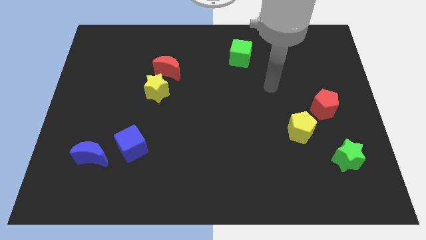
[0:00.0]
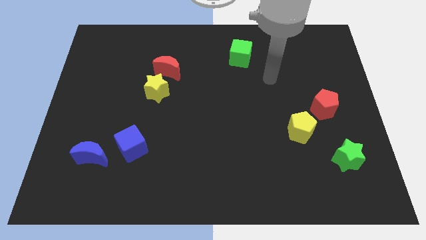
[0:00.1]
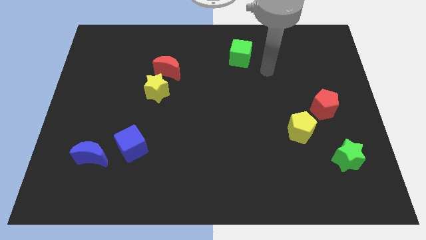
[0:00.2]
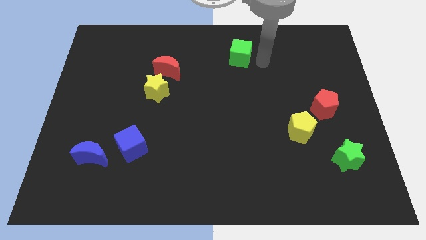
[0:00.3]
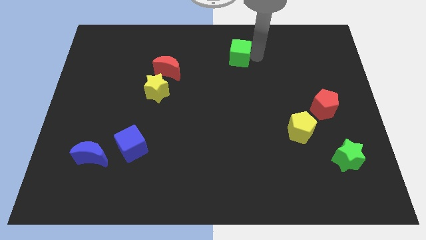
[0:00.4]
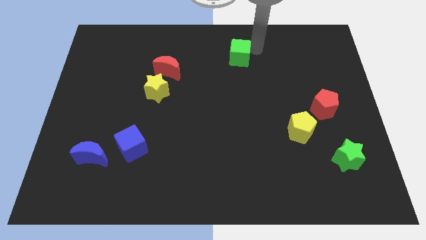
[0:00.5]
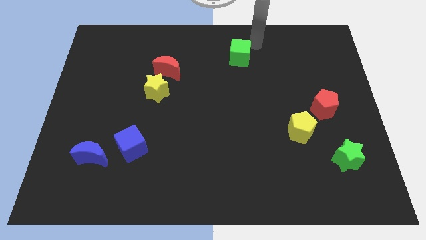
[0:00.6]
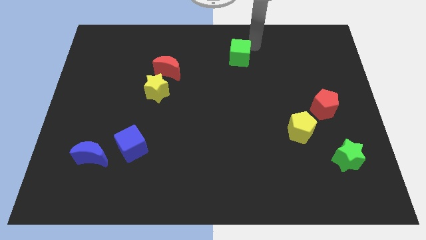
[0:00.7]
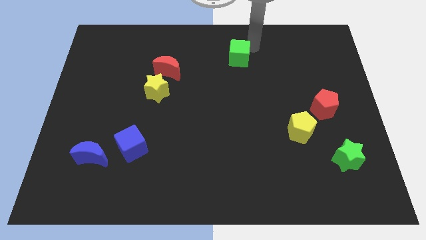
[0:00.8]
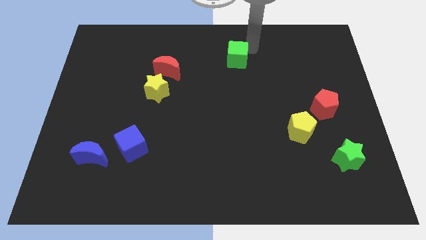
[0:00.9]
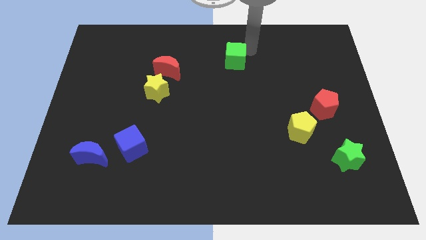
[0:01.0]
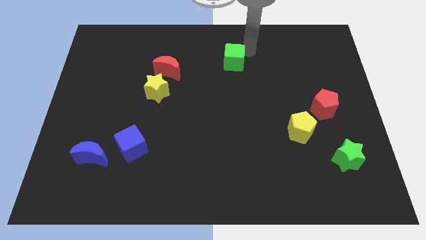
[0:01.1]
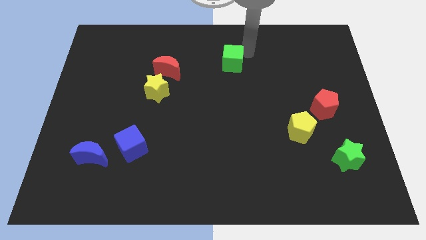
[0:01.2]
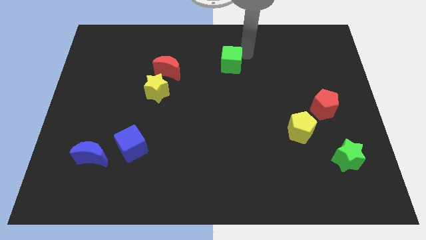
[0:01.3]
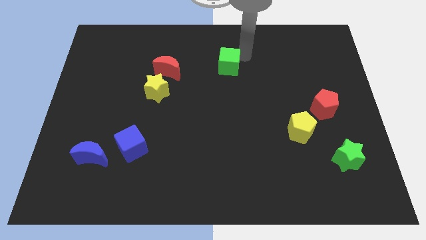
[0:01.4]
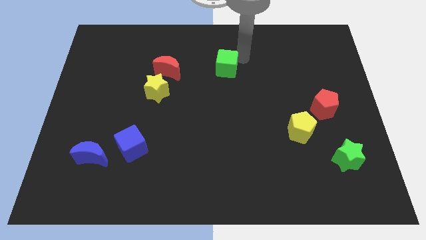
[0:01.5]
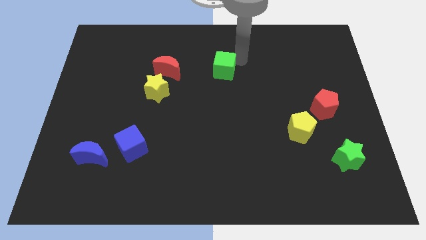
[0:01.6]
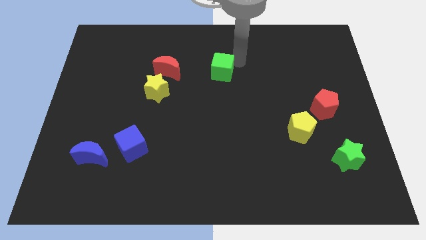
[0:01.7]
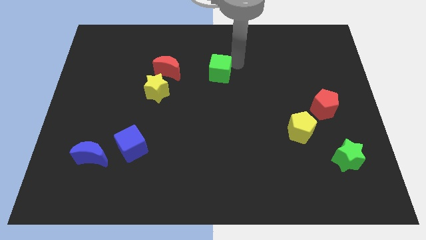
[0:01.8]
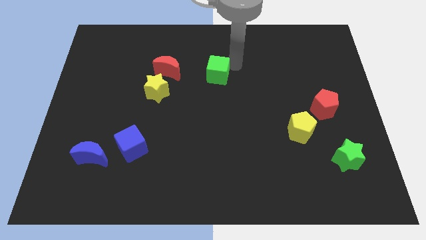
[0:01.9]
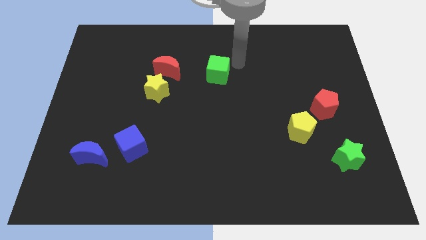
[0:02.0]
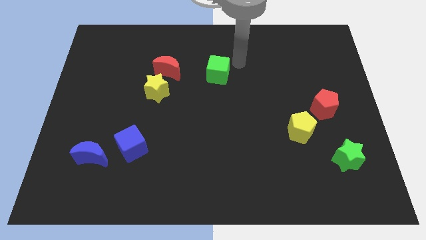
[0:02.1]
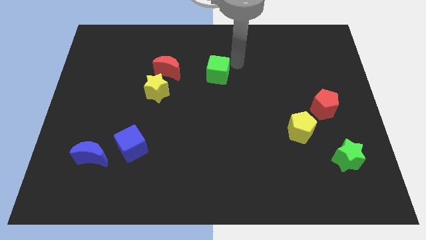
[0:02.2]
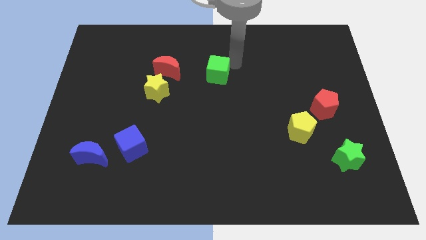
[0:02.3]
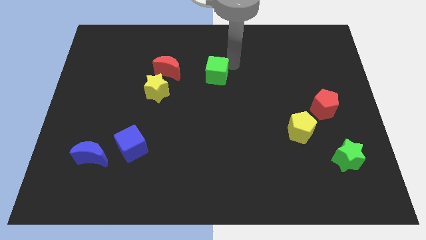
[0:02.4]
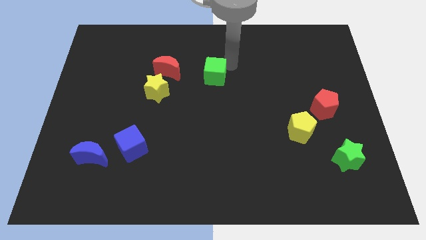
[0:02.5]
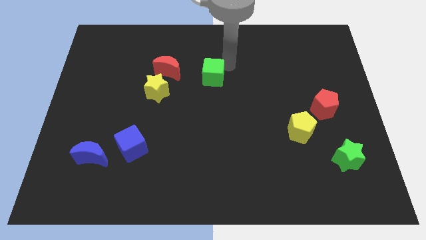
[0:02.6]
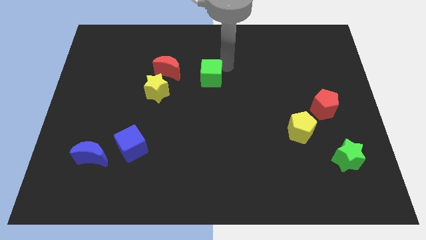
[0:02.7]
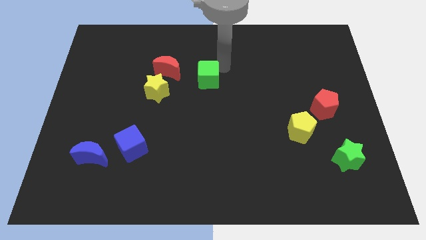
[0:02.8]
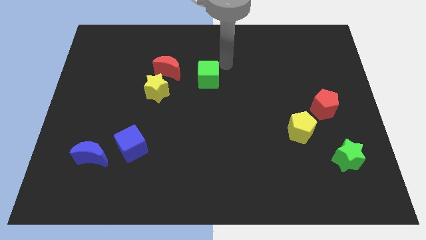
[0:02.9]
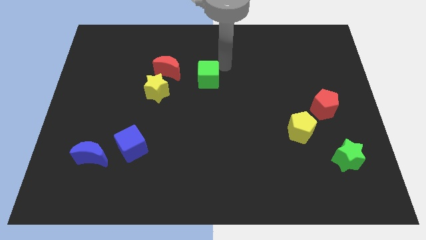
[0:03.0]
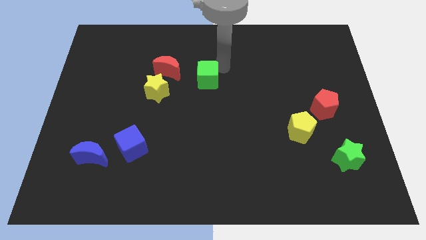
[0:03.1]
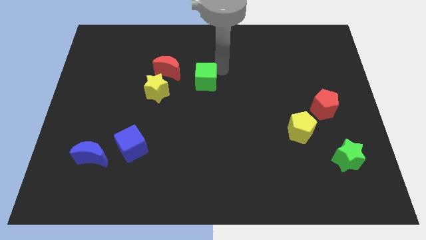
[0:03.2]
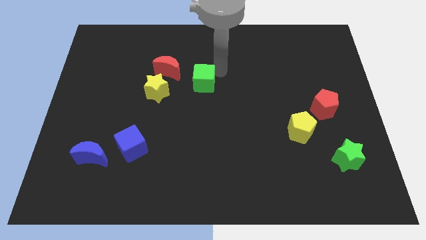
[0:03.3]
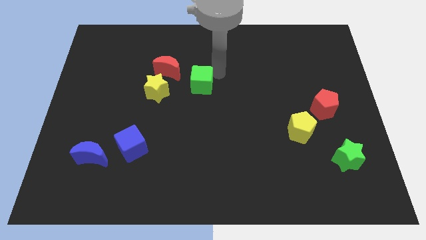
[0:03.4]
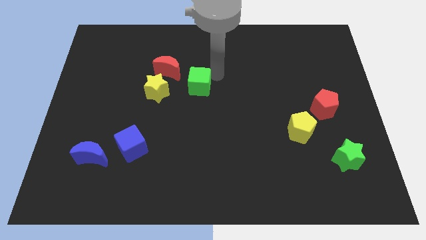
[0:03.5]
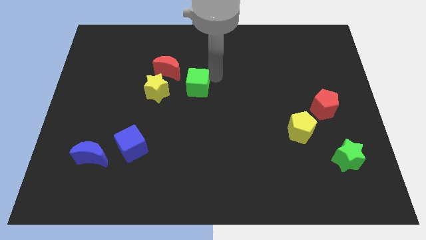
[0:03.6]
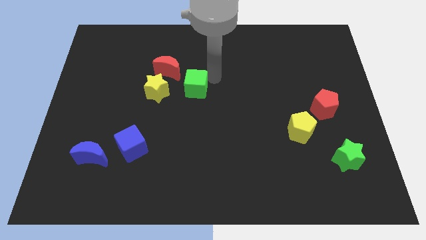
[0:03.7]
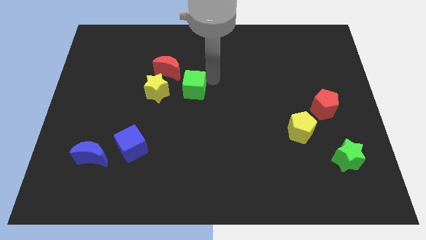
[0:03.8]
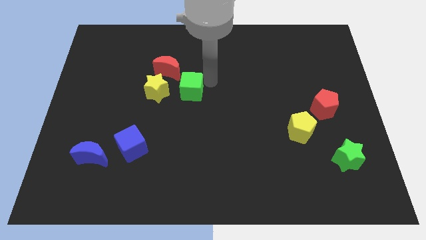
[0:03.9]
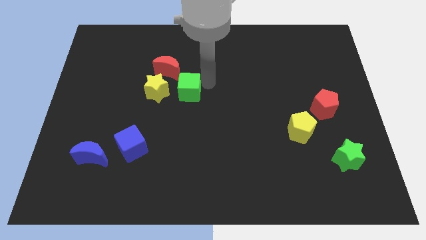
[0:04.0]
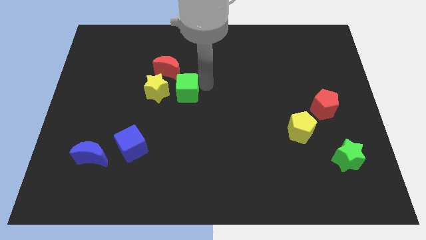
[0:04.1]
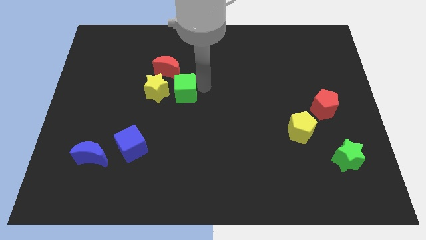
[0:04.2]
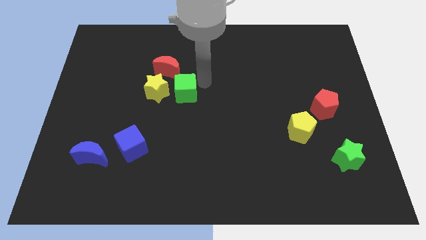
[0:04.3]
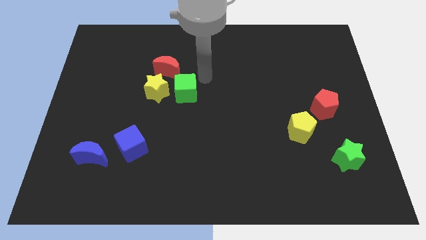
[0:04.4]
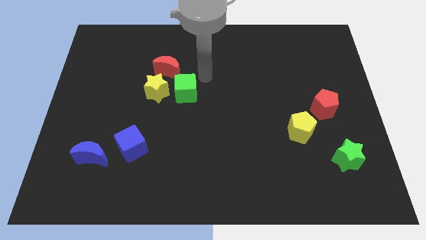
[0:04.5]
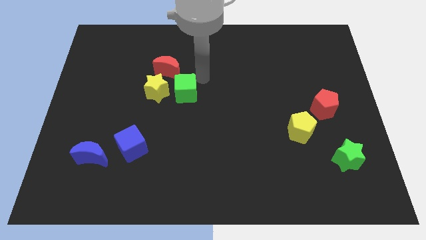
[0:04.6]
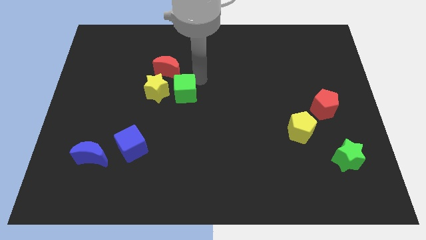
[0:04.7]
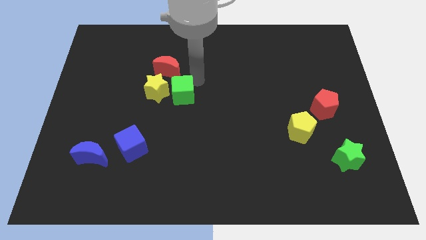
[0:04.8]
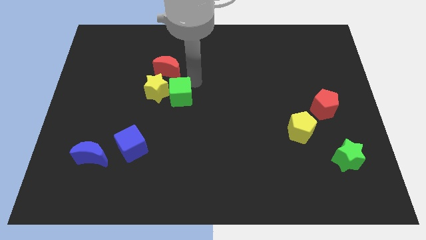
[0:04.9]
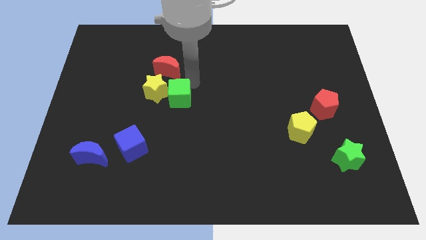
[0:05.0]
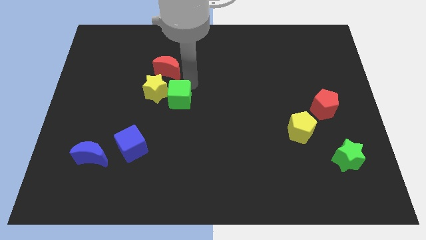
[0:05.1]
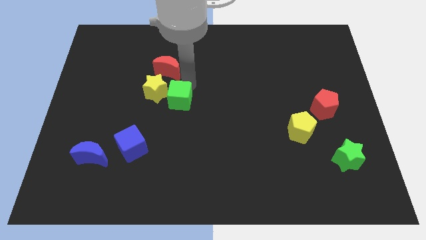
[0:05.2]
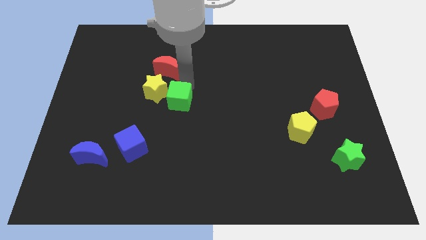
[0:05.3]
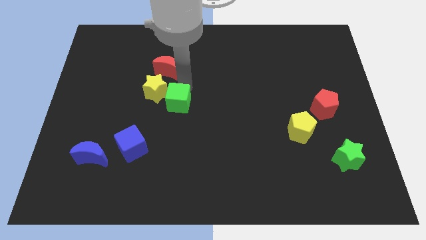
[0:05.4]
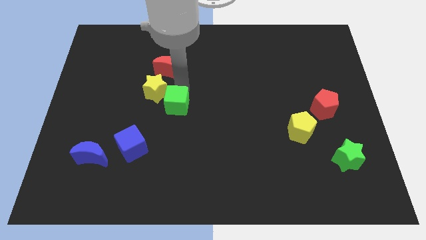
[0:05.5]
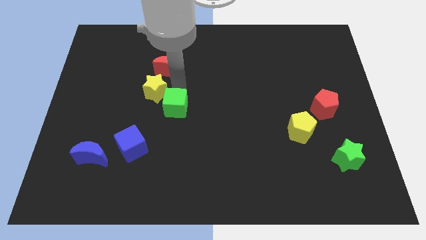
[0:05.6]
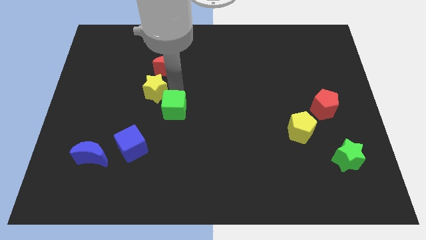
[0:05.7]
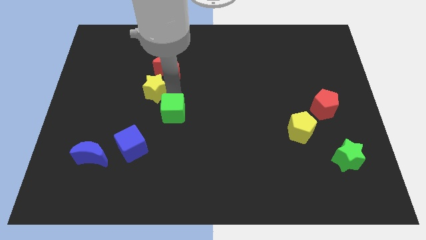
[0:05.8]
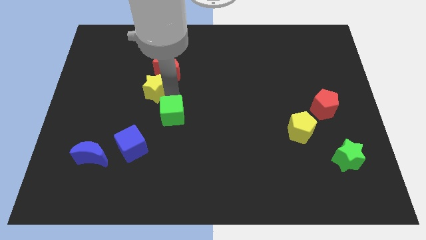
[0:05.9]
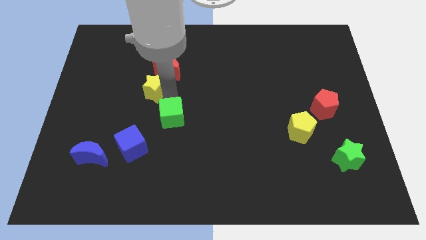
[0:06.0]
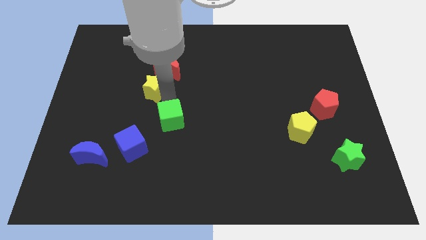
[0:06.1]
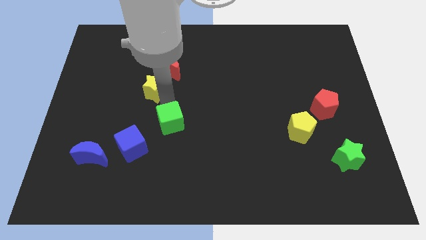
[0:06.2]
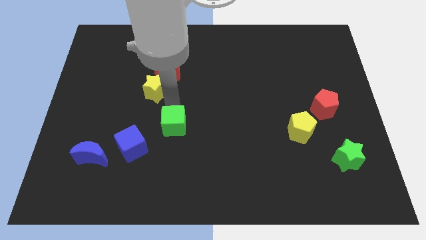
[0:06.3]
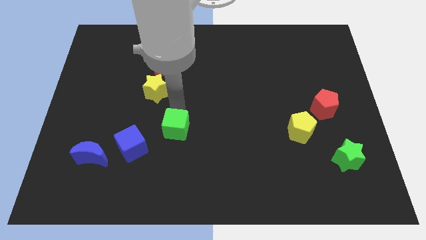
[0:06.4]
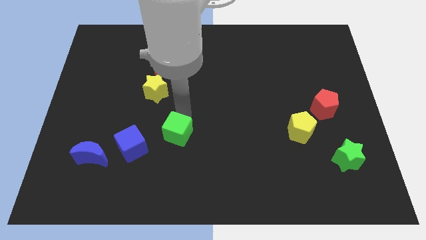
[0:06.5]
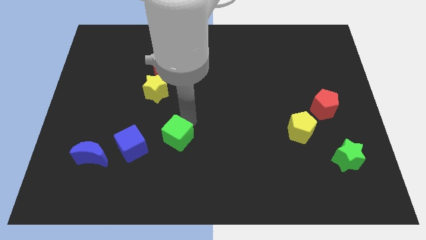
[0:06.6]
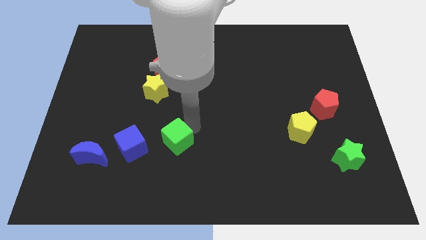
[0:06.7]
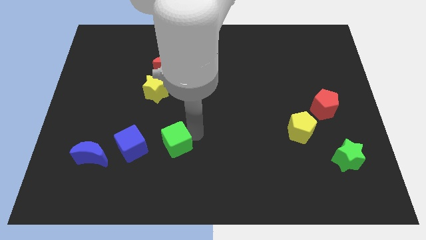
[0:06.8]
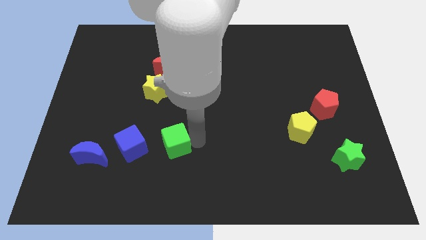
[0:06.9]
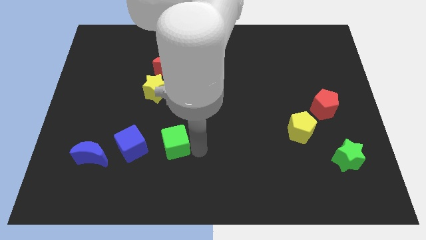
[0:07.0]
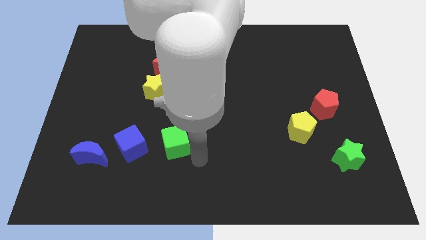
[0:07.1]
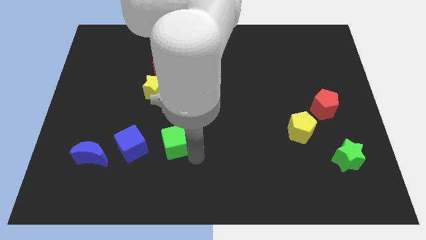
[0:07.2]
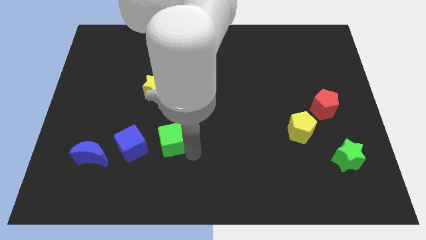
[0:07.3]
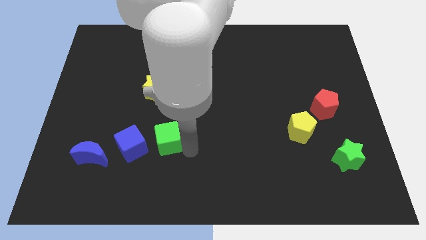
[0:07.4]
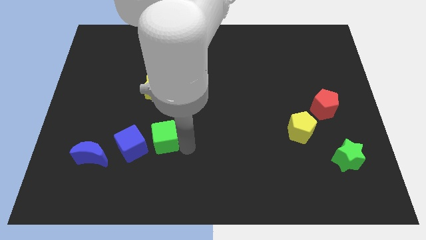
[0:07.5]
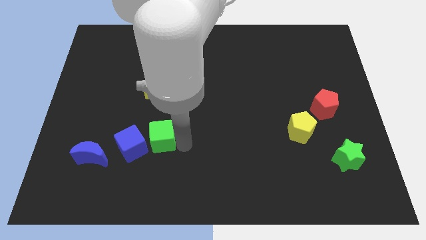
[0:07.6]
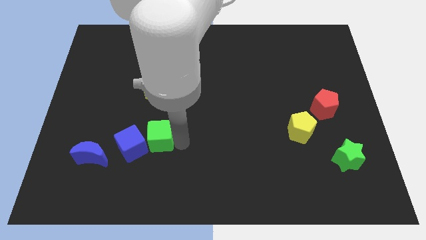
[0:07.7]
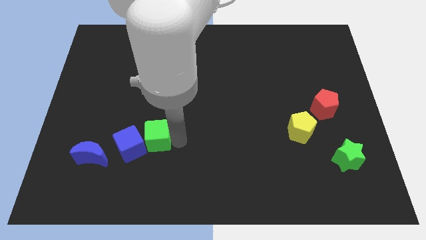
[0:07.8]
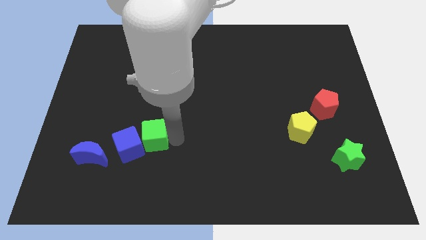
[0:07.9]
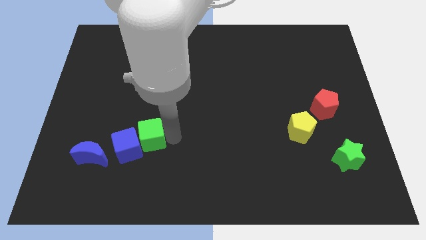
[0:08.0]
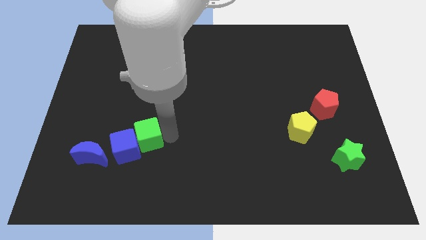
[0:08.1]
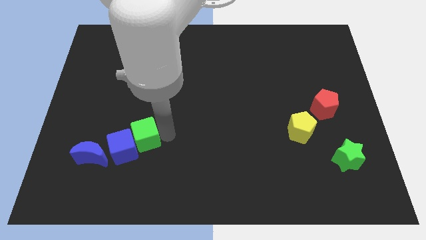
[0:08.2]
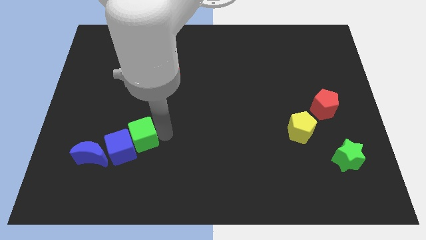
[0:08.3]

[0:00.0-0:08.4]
put the green cube to the top right of the blue moon
